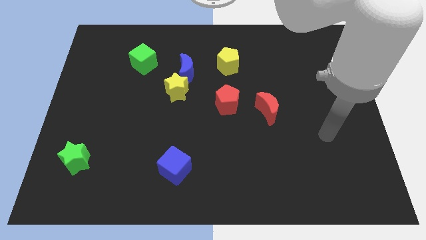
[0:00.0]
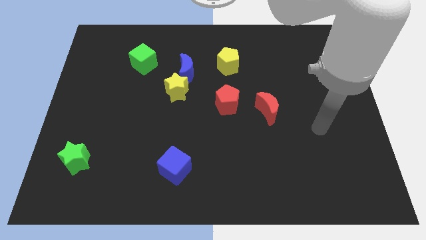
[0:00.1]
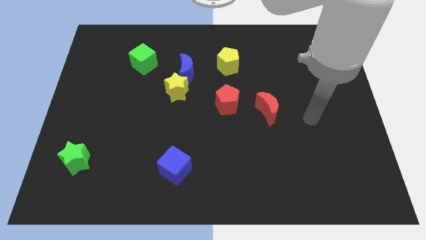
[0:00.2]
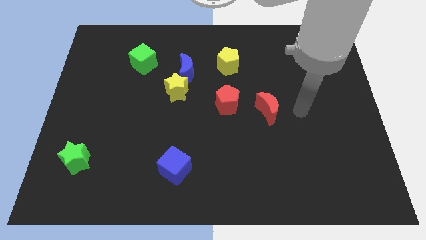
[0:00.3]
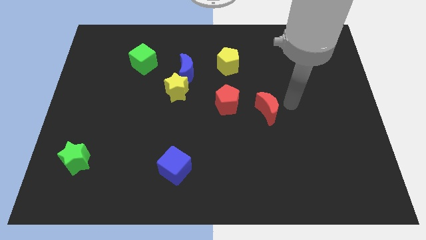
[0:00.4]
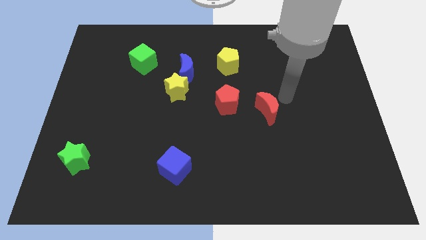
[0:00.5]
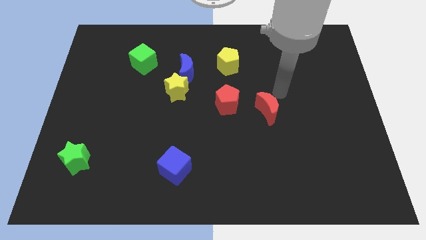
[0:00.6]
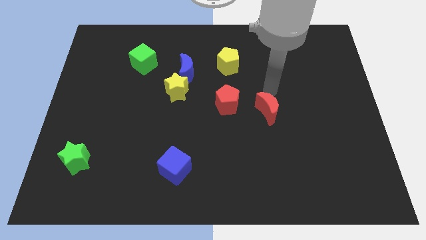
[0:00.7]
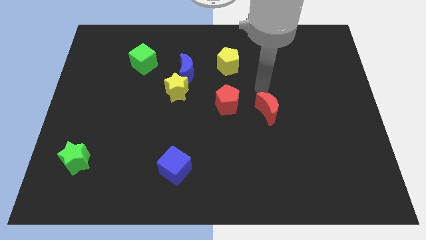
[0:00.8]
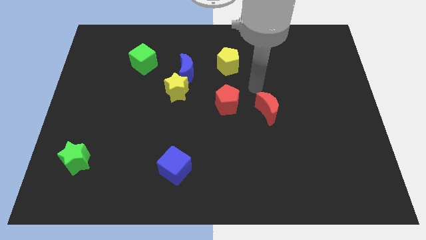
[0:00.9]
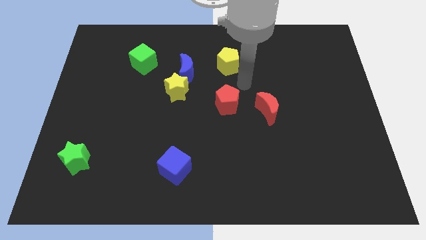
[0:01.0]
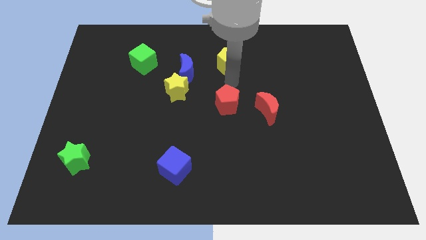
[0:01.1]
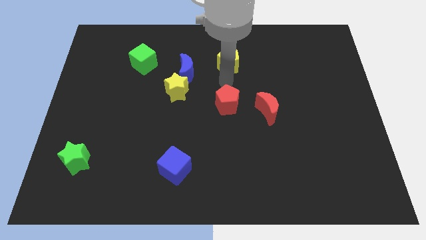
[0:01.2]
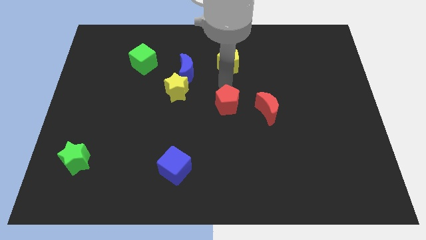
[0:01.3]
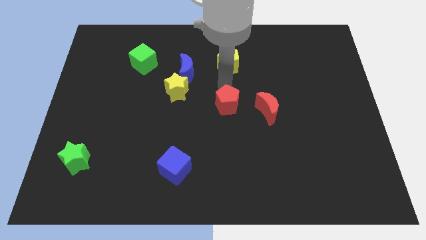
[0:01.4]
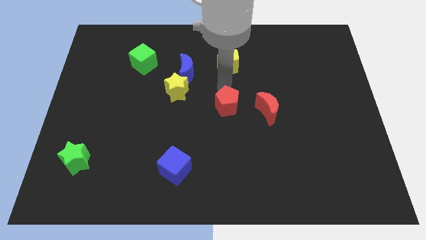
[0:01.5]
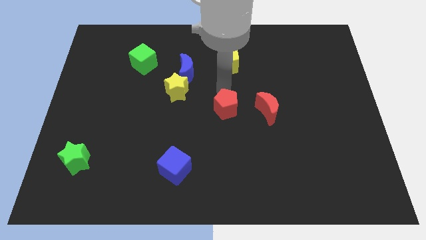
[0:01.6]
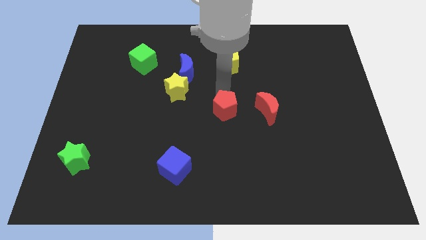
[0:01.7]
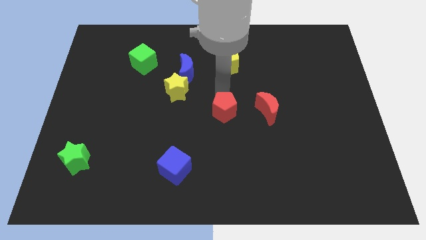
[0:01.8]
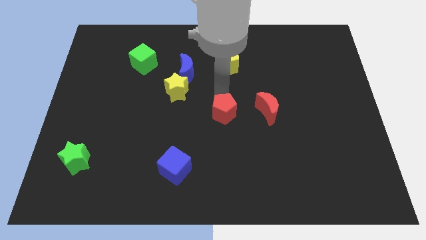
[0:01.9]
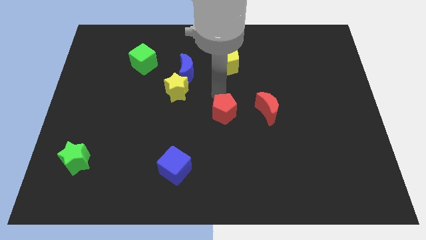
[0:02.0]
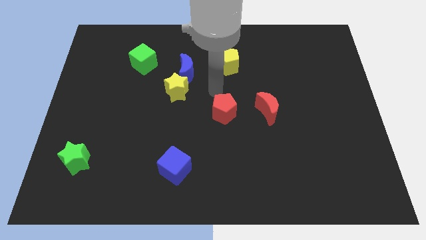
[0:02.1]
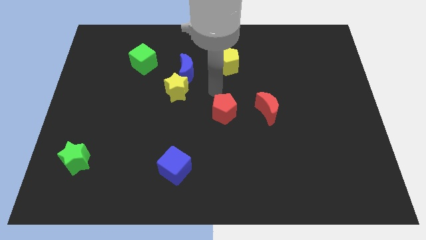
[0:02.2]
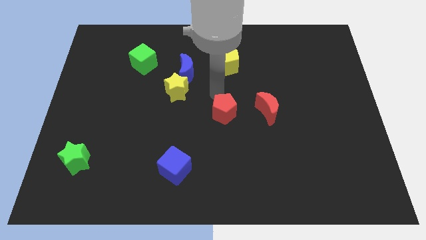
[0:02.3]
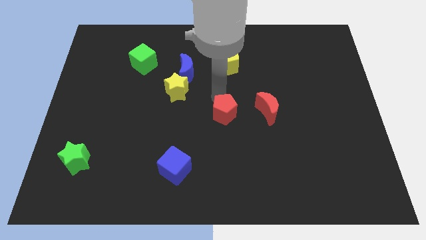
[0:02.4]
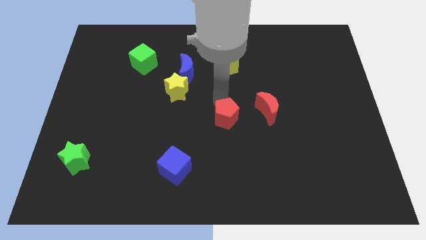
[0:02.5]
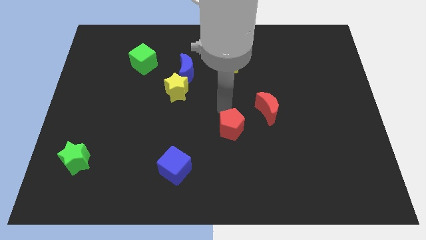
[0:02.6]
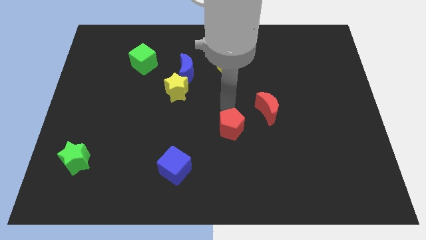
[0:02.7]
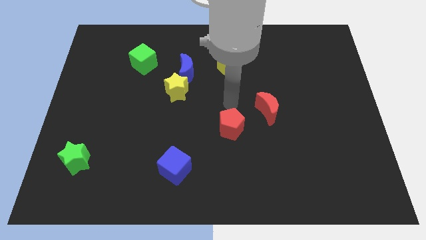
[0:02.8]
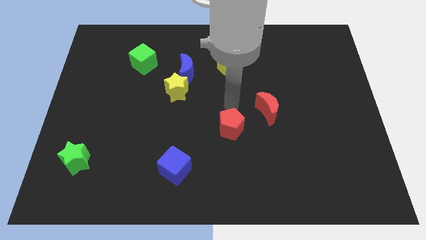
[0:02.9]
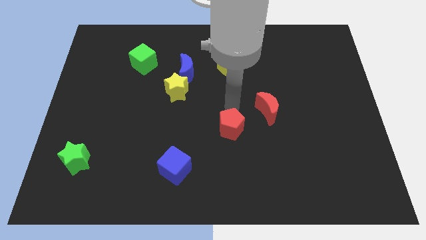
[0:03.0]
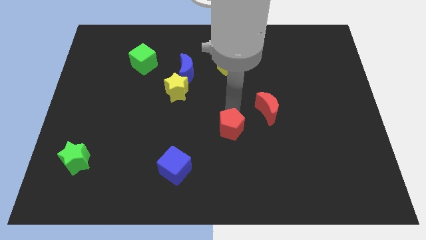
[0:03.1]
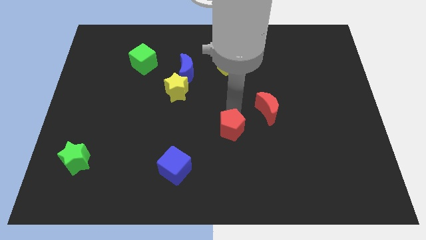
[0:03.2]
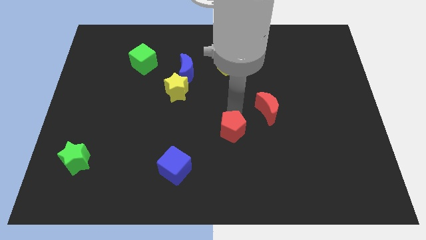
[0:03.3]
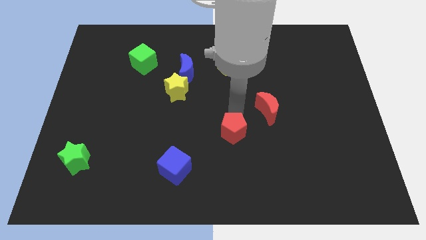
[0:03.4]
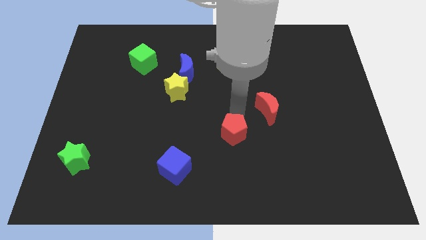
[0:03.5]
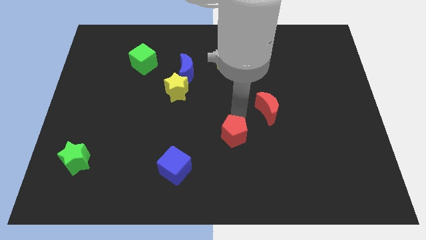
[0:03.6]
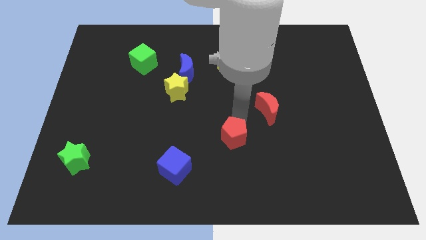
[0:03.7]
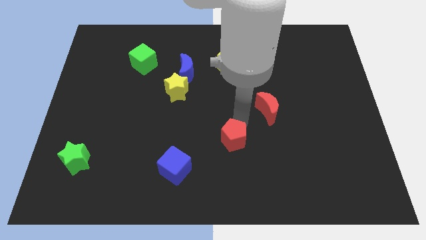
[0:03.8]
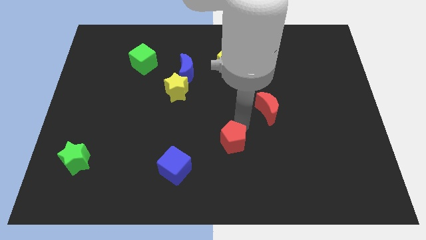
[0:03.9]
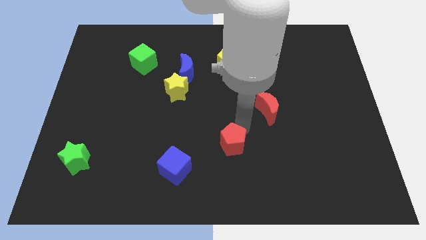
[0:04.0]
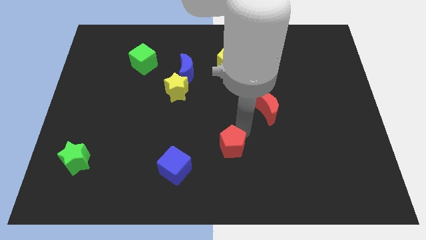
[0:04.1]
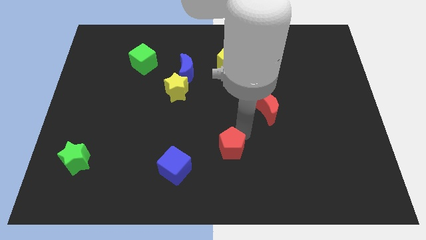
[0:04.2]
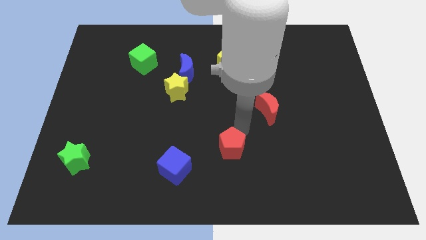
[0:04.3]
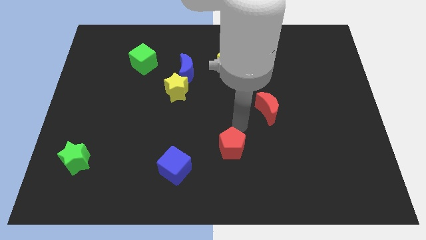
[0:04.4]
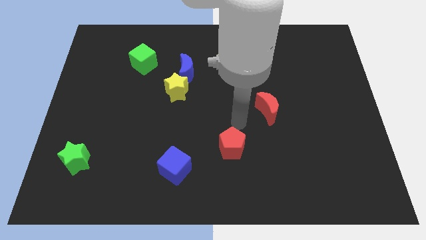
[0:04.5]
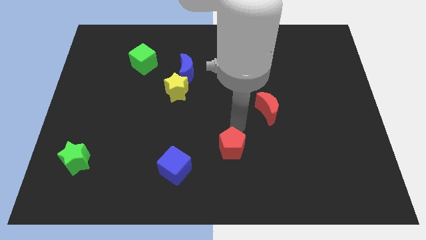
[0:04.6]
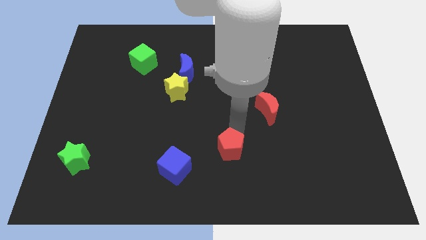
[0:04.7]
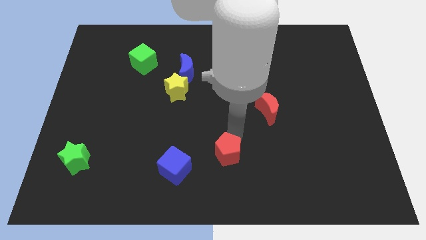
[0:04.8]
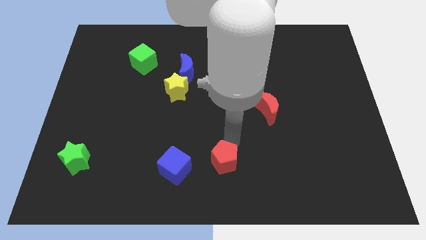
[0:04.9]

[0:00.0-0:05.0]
push the red pentagon to the bottom side

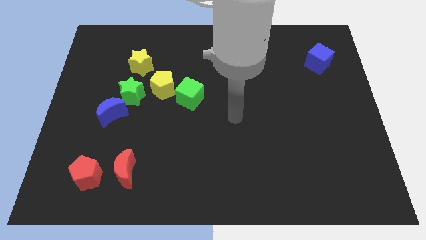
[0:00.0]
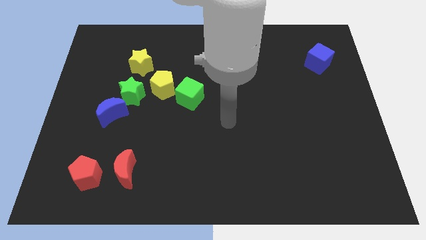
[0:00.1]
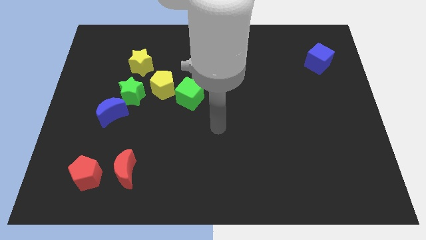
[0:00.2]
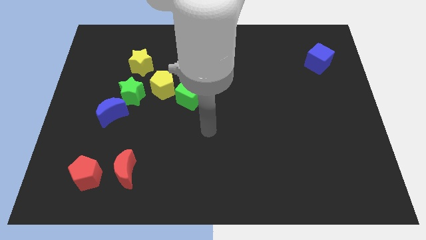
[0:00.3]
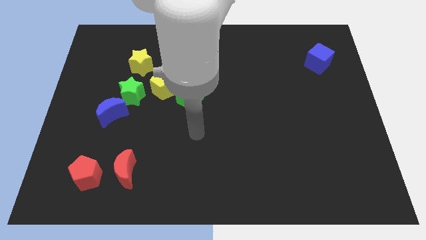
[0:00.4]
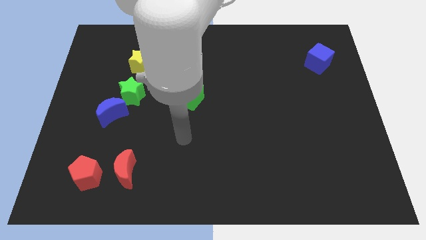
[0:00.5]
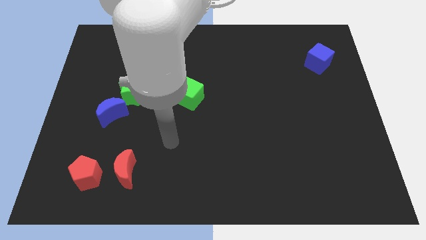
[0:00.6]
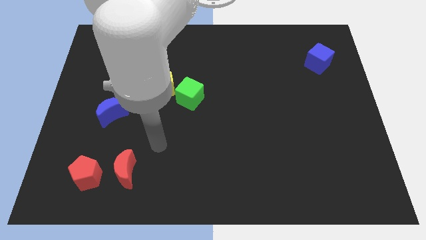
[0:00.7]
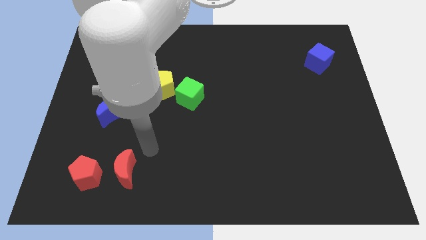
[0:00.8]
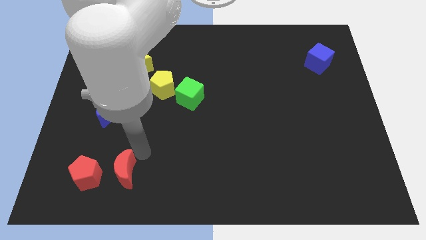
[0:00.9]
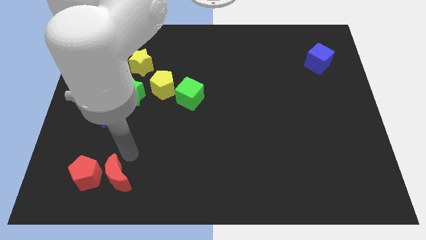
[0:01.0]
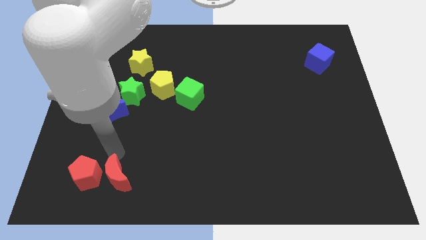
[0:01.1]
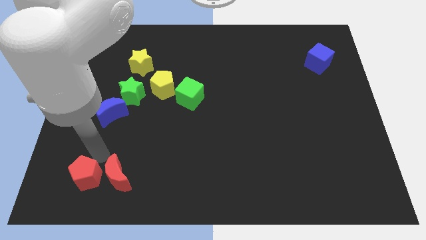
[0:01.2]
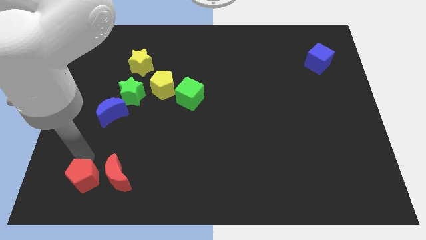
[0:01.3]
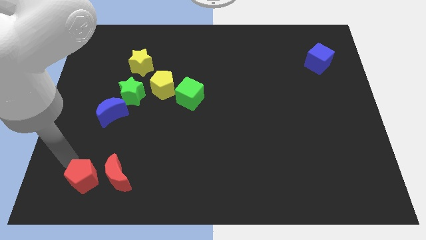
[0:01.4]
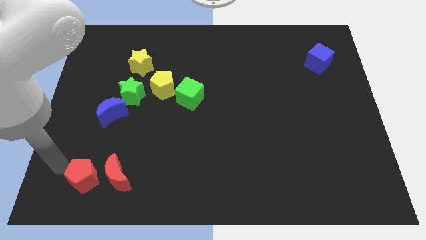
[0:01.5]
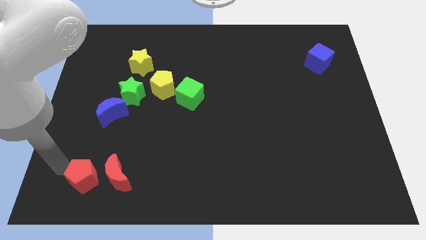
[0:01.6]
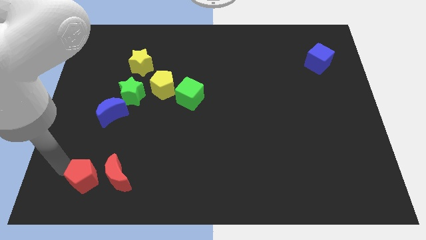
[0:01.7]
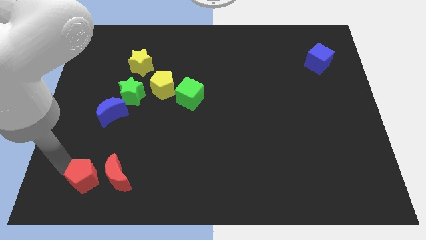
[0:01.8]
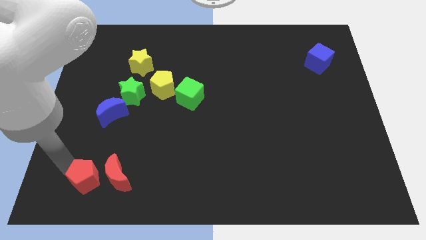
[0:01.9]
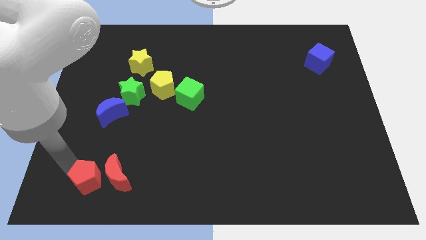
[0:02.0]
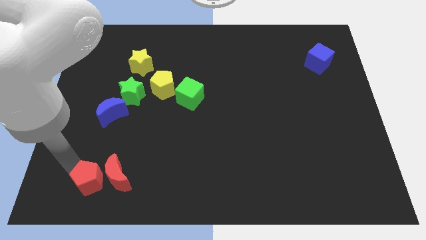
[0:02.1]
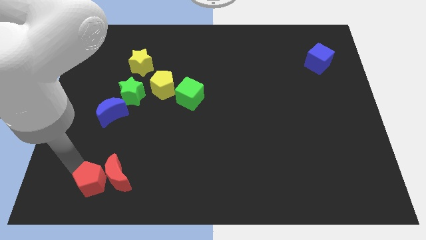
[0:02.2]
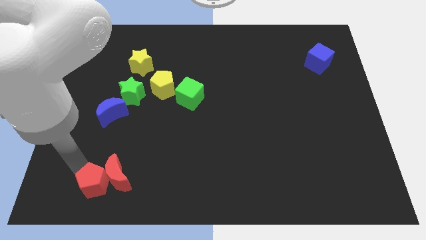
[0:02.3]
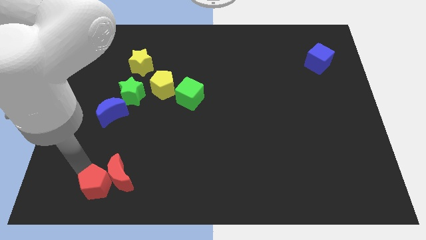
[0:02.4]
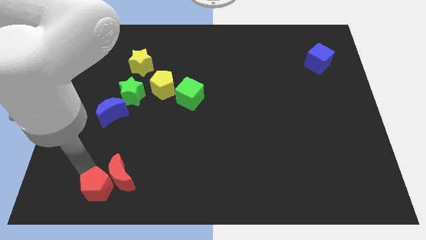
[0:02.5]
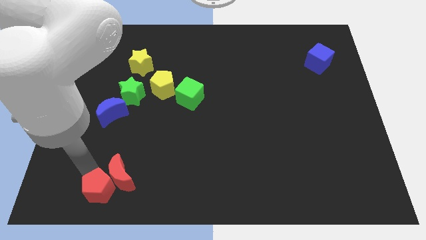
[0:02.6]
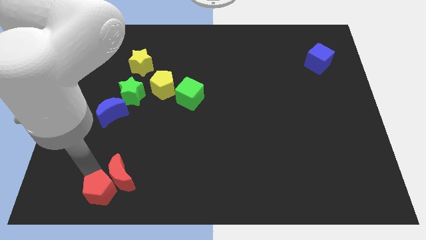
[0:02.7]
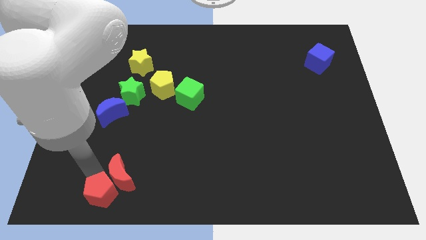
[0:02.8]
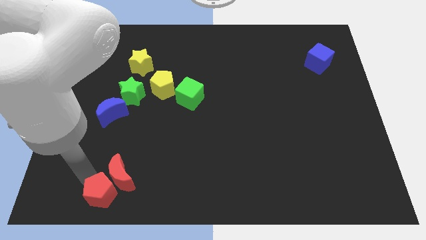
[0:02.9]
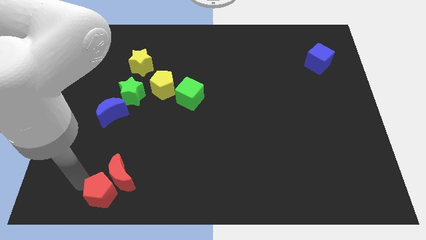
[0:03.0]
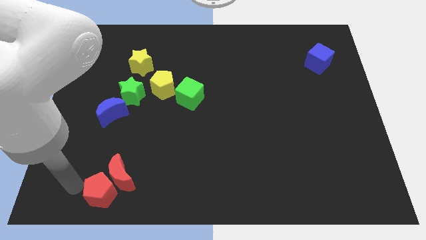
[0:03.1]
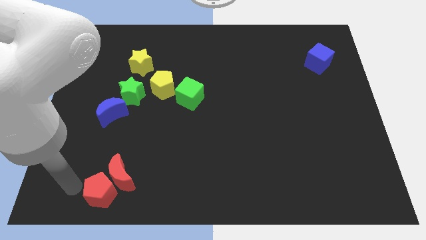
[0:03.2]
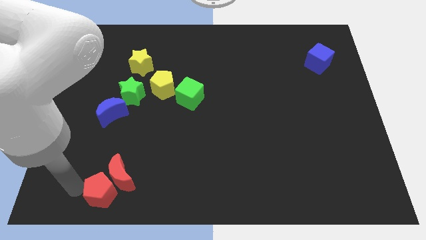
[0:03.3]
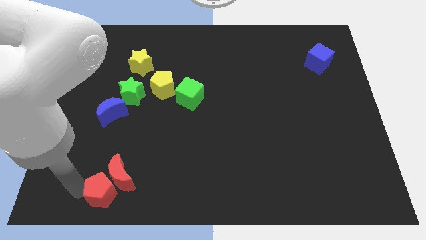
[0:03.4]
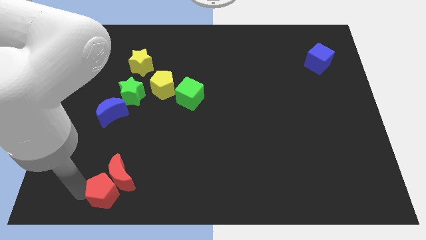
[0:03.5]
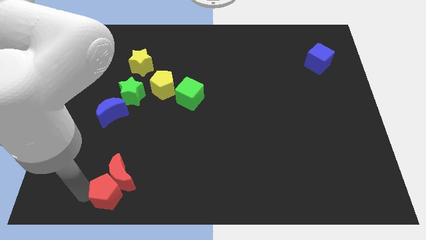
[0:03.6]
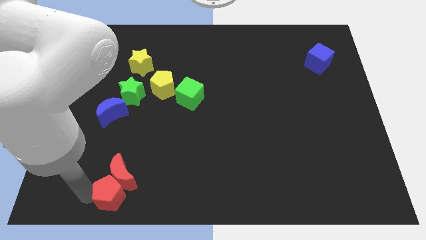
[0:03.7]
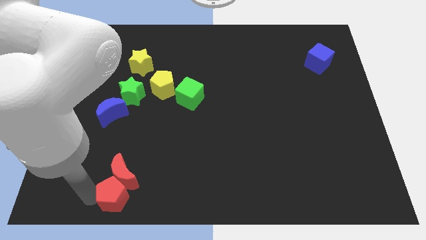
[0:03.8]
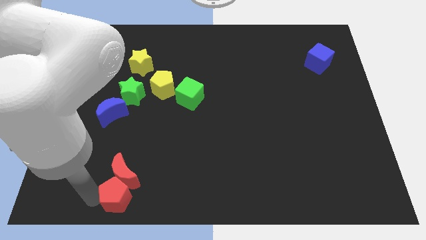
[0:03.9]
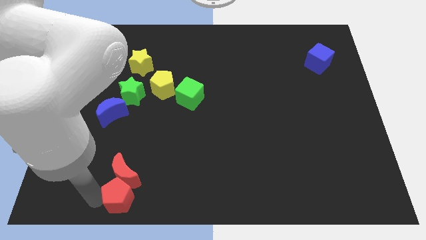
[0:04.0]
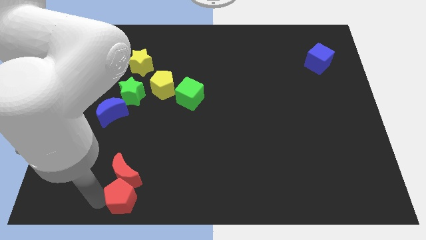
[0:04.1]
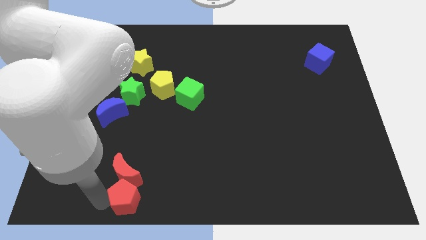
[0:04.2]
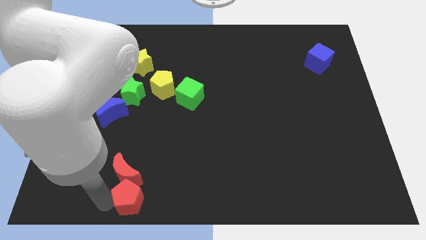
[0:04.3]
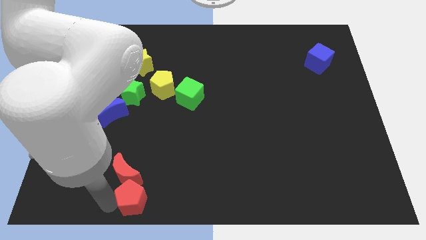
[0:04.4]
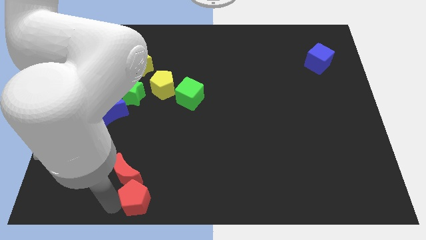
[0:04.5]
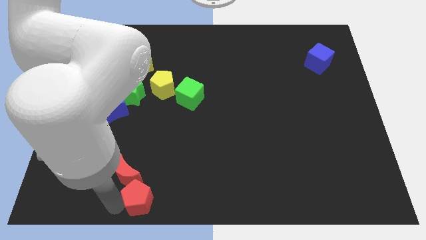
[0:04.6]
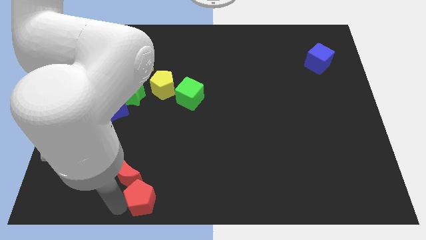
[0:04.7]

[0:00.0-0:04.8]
put the red pentagon to the bottom
